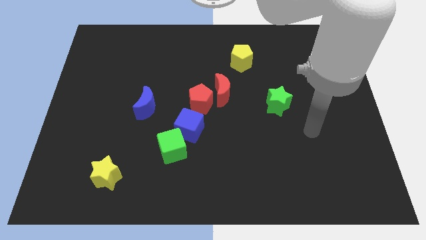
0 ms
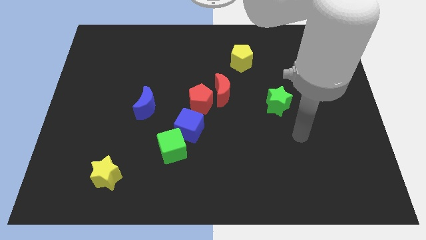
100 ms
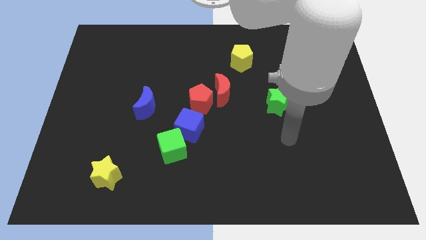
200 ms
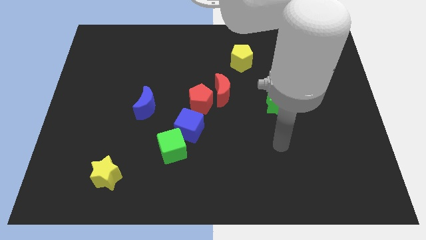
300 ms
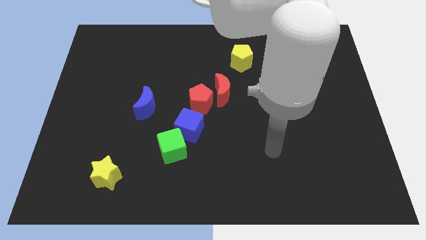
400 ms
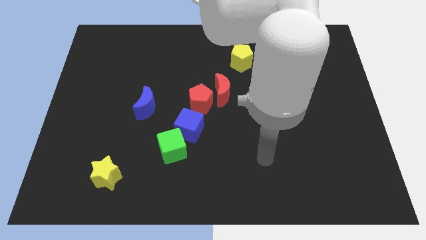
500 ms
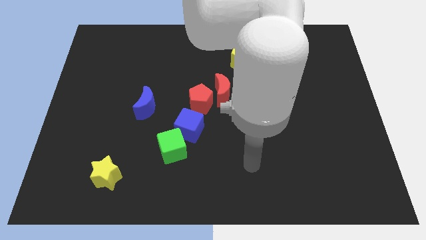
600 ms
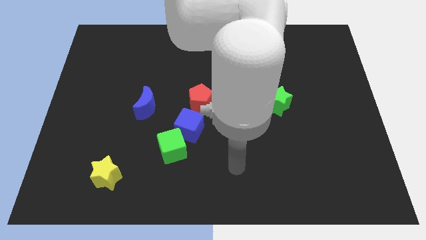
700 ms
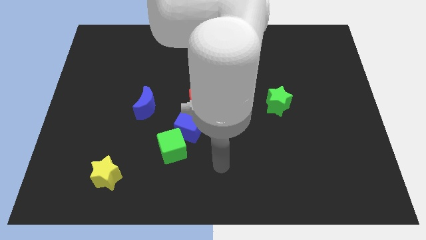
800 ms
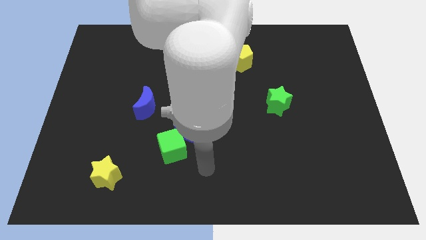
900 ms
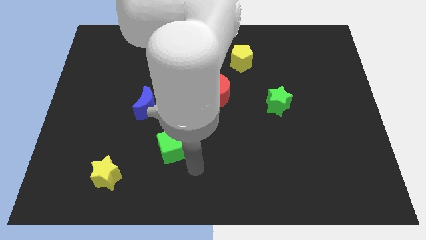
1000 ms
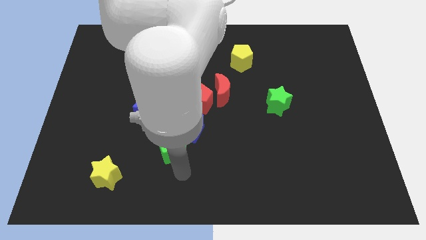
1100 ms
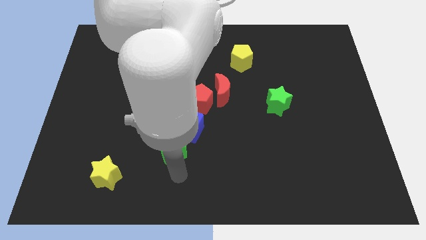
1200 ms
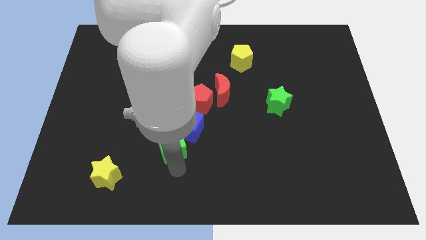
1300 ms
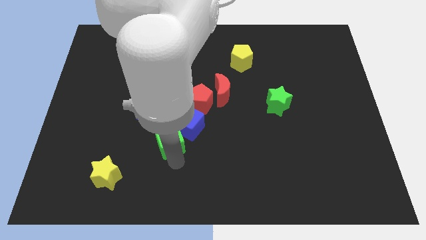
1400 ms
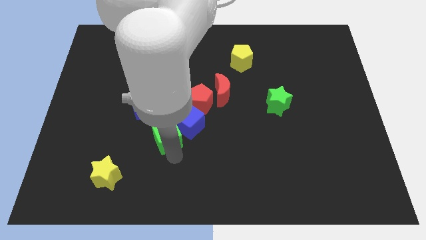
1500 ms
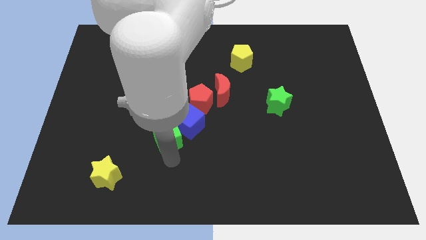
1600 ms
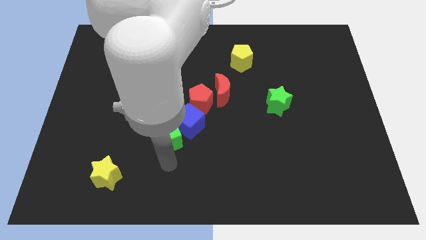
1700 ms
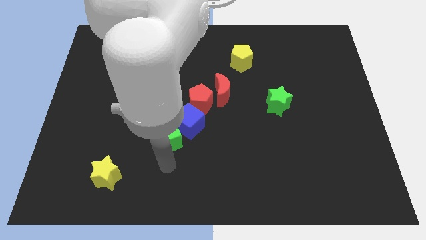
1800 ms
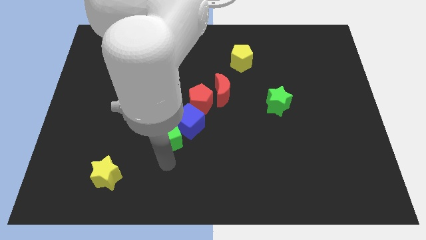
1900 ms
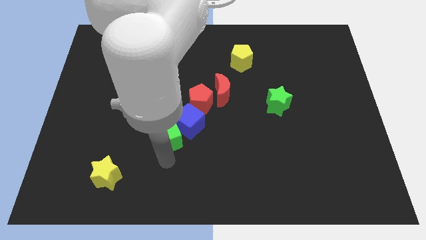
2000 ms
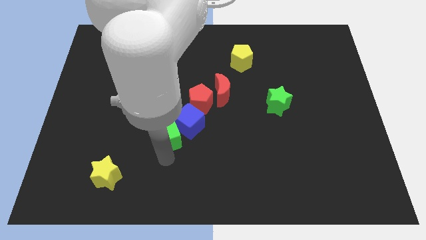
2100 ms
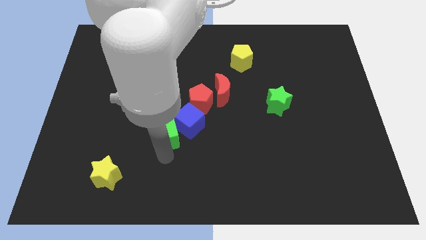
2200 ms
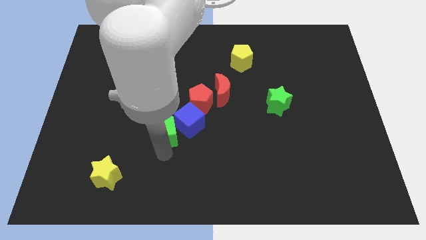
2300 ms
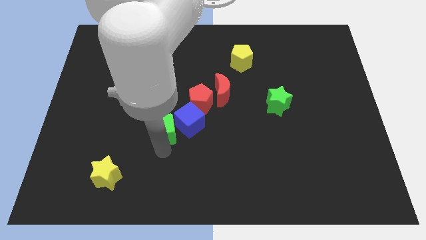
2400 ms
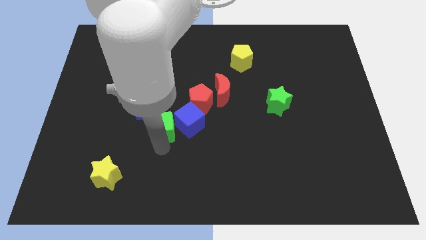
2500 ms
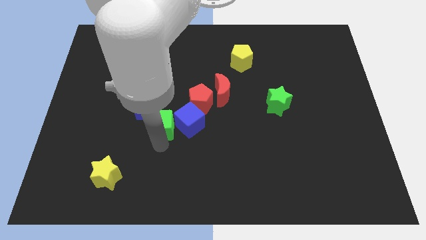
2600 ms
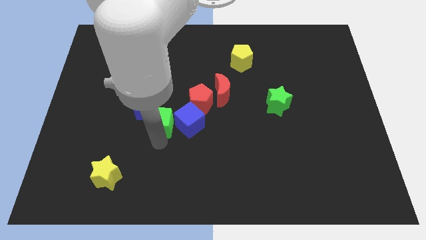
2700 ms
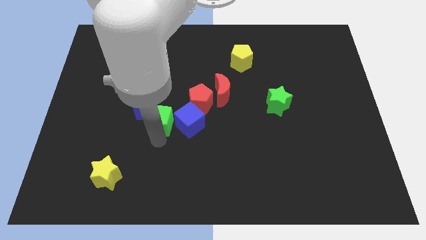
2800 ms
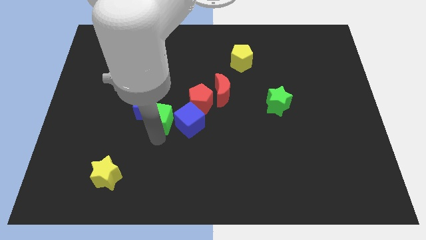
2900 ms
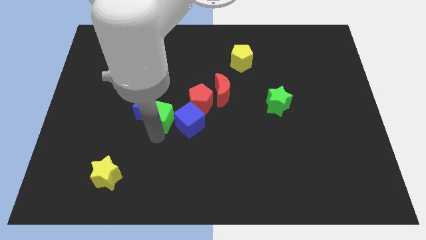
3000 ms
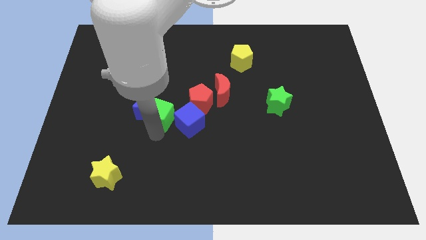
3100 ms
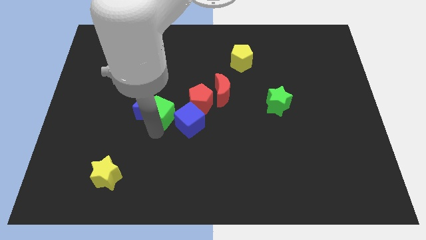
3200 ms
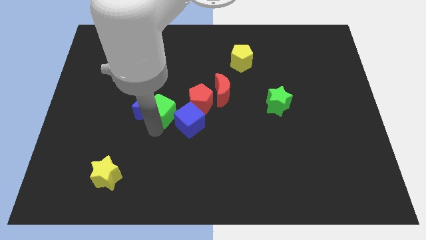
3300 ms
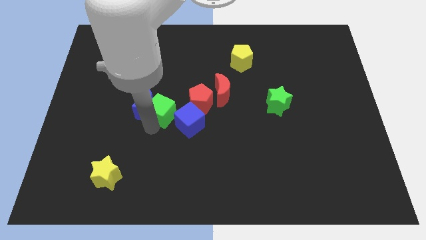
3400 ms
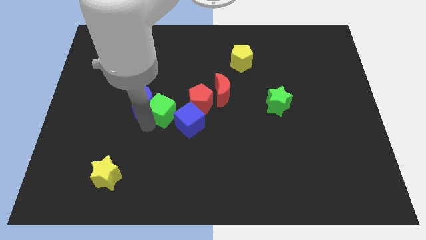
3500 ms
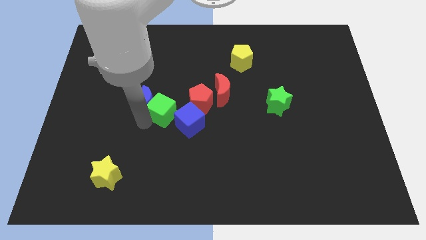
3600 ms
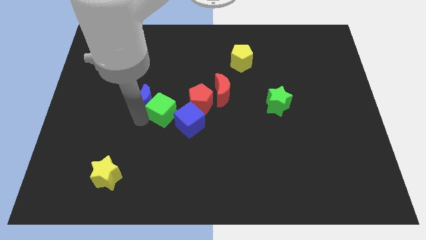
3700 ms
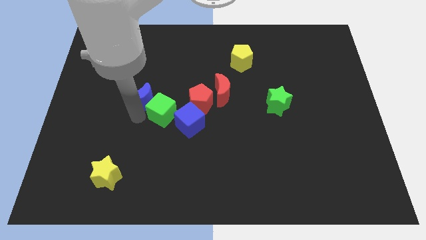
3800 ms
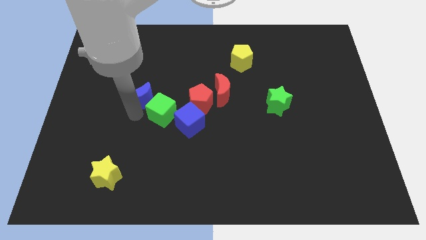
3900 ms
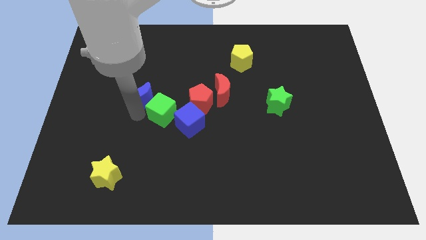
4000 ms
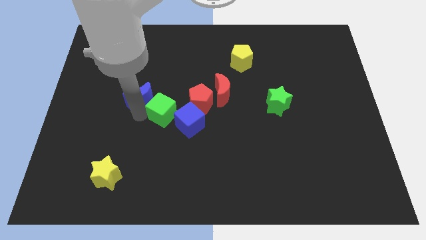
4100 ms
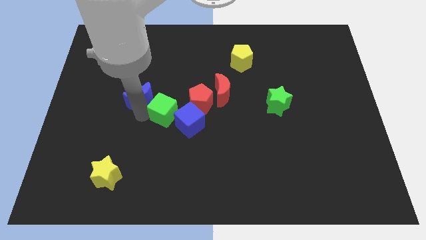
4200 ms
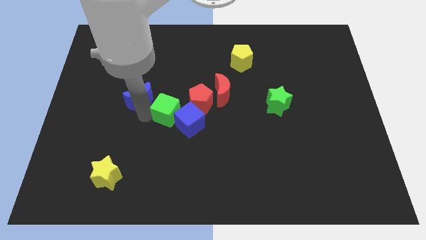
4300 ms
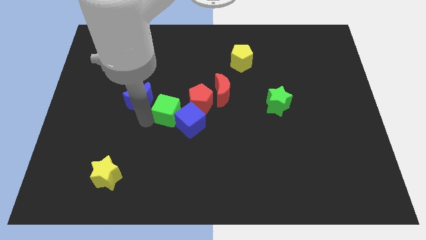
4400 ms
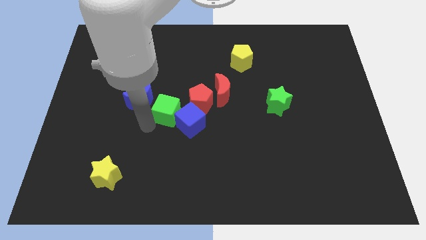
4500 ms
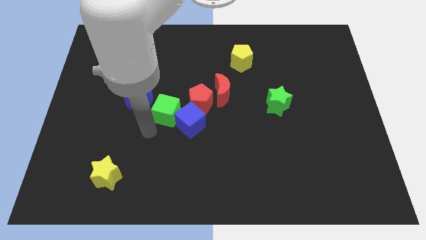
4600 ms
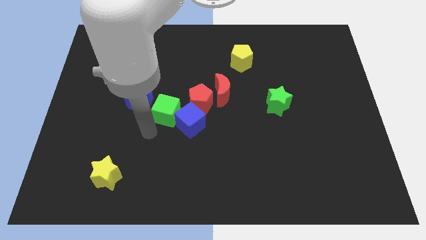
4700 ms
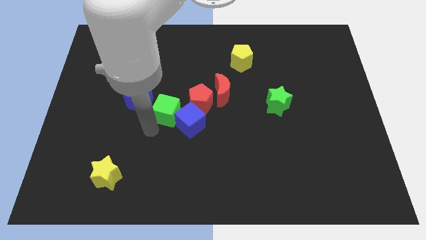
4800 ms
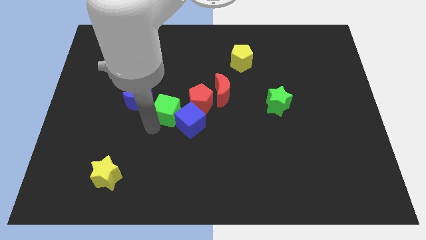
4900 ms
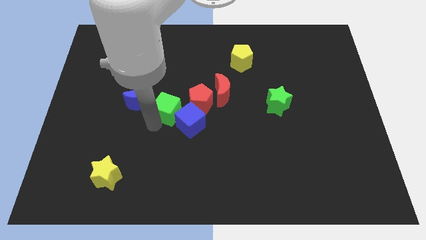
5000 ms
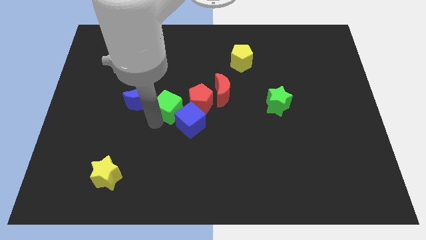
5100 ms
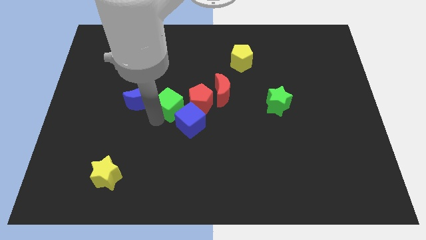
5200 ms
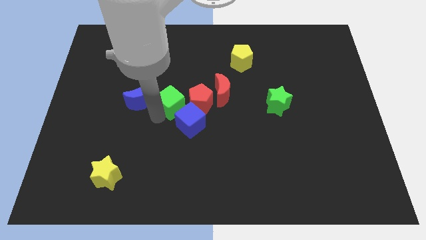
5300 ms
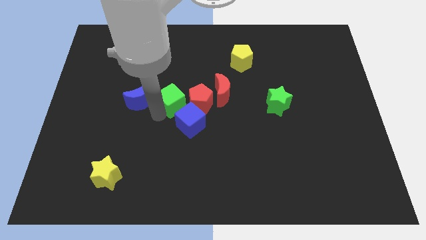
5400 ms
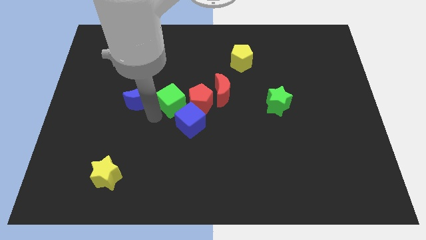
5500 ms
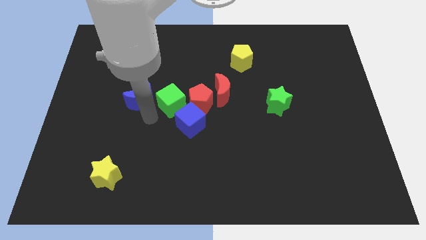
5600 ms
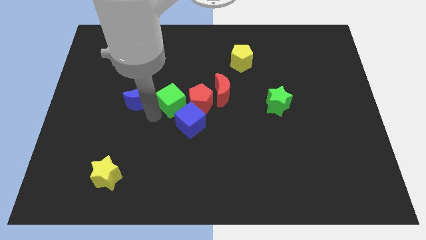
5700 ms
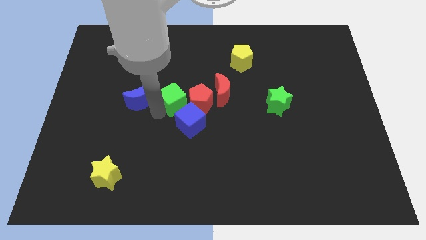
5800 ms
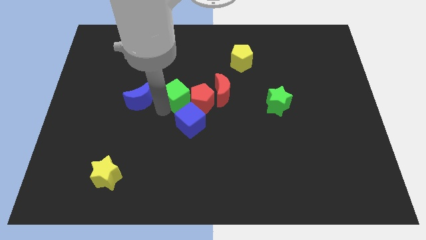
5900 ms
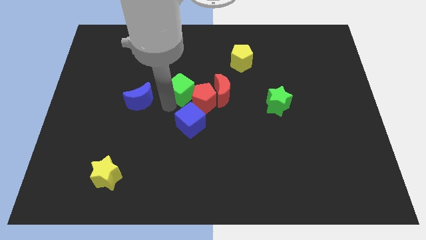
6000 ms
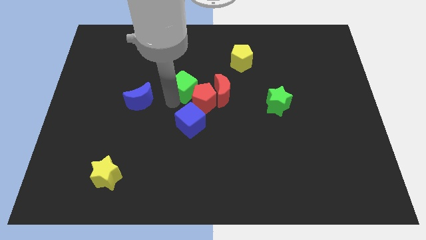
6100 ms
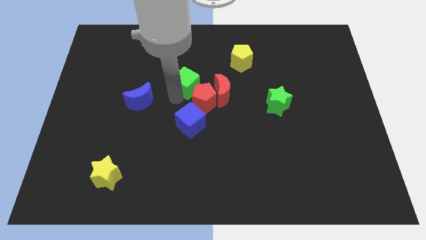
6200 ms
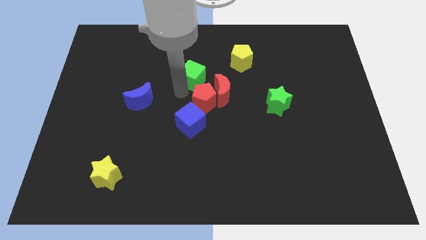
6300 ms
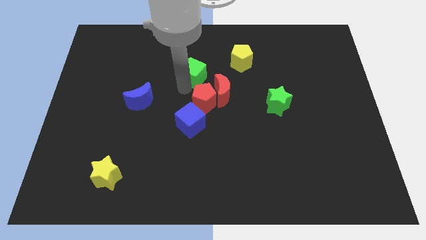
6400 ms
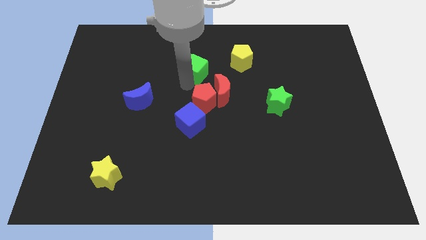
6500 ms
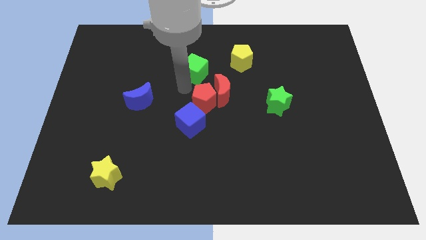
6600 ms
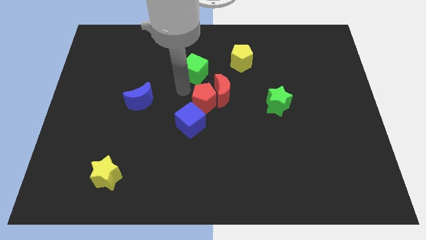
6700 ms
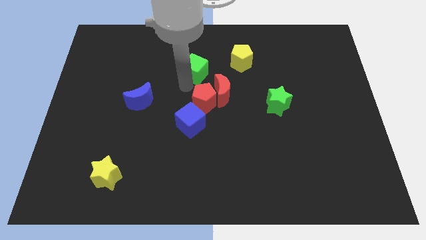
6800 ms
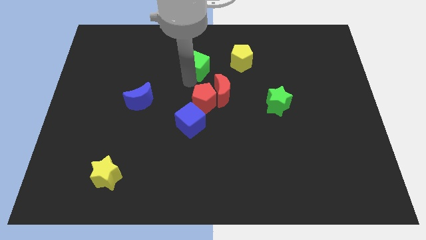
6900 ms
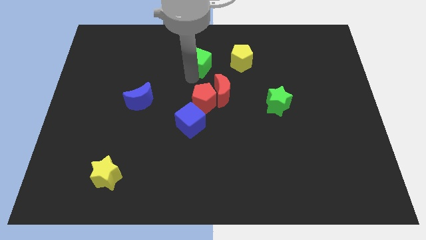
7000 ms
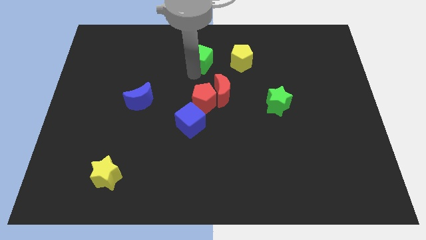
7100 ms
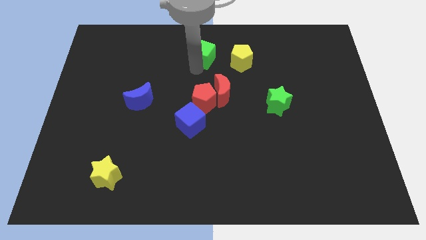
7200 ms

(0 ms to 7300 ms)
push the green cube to the top
